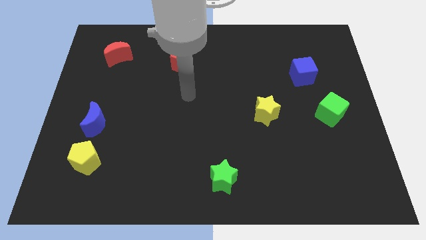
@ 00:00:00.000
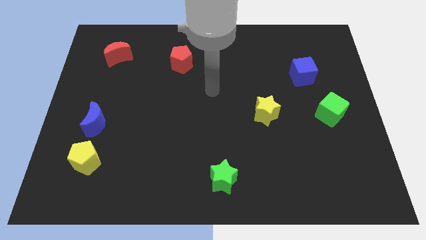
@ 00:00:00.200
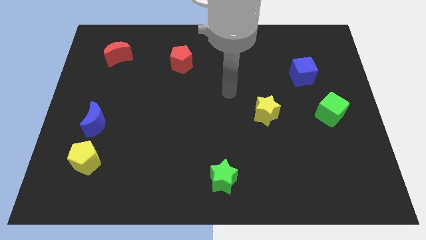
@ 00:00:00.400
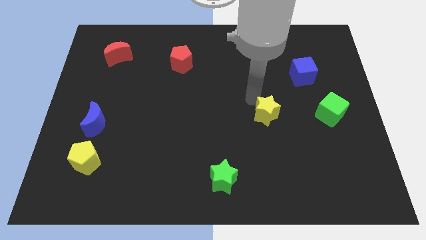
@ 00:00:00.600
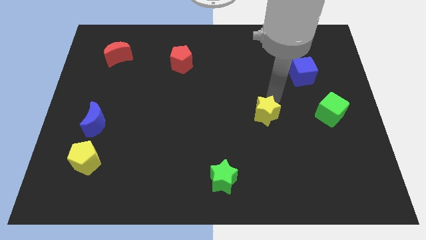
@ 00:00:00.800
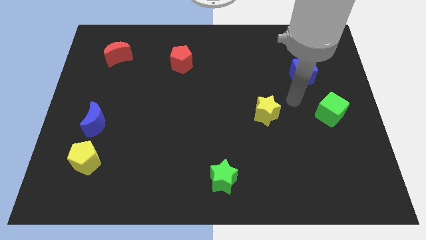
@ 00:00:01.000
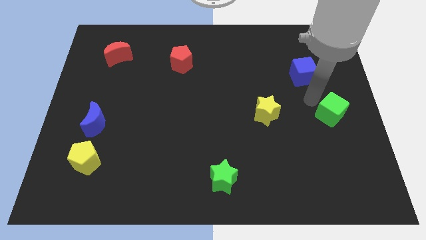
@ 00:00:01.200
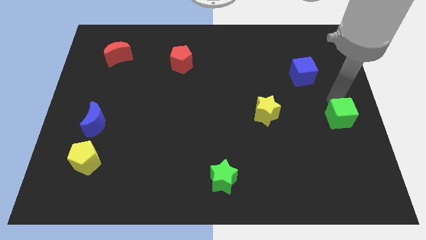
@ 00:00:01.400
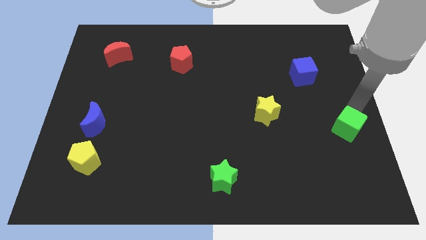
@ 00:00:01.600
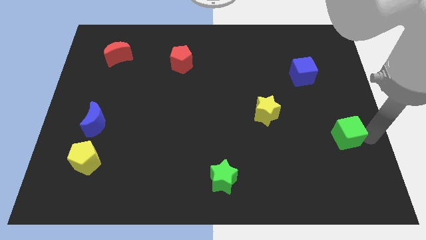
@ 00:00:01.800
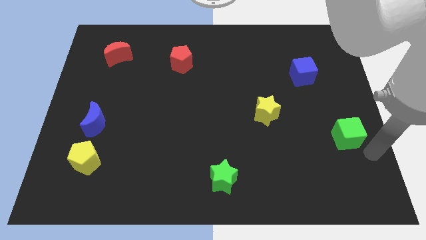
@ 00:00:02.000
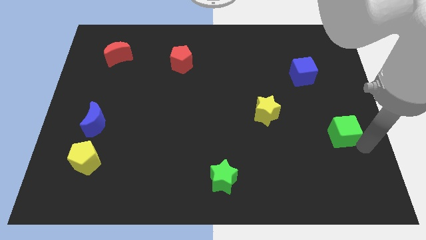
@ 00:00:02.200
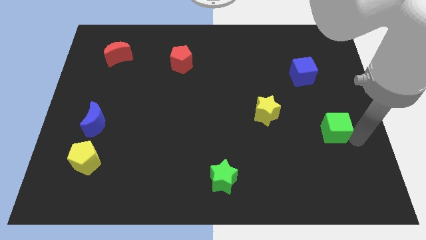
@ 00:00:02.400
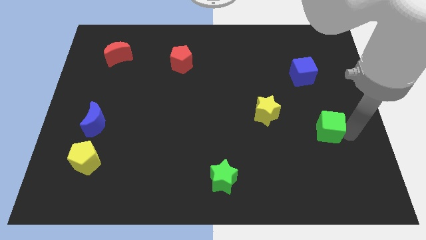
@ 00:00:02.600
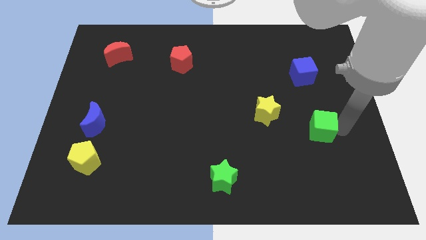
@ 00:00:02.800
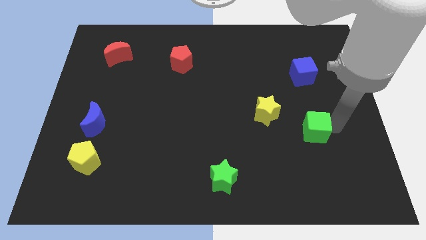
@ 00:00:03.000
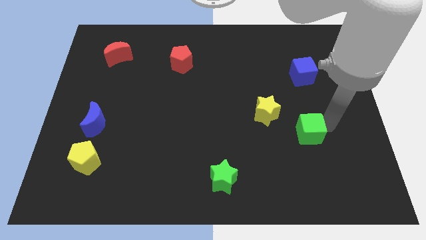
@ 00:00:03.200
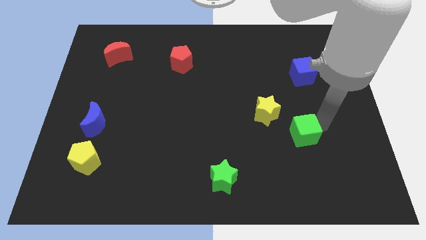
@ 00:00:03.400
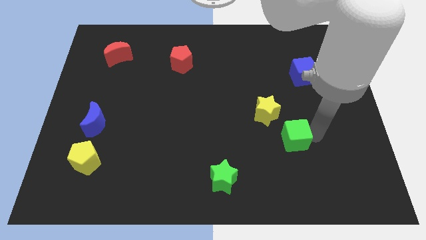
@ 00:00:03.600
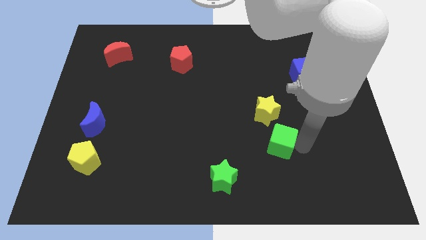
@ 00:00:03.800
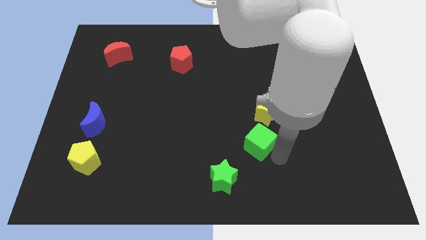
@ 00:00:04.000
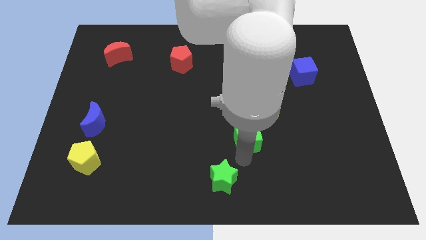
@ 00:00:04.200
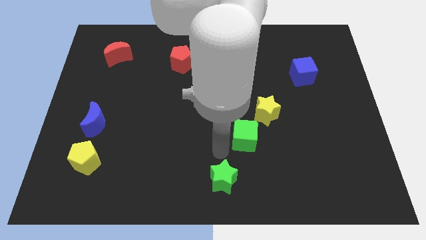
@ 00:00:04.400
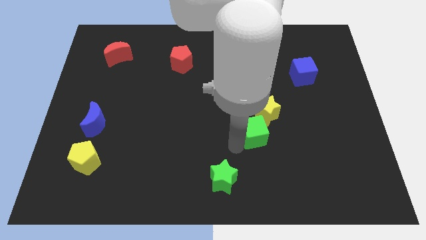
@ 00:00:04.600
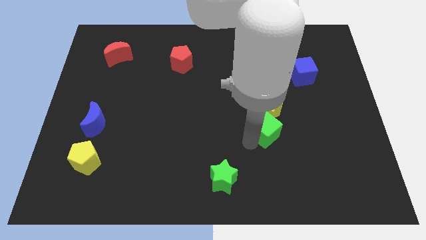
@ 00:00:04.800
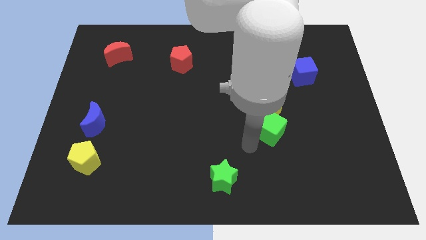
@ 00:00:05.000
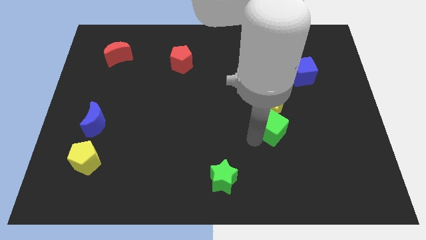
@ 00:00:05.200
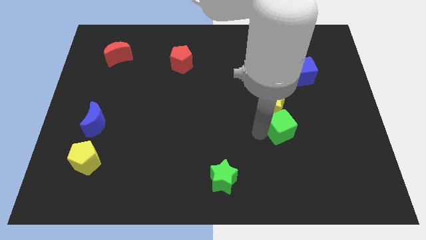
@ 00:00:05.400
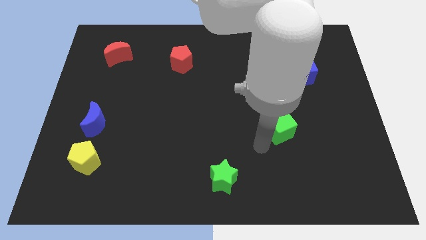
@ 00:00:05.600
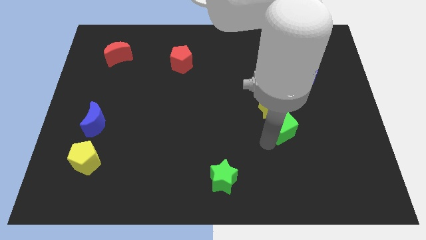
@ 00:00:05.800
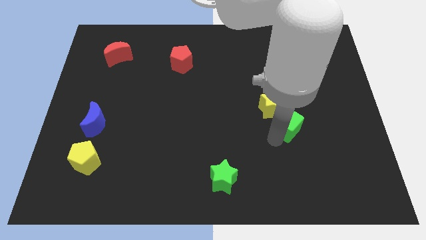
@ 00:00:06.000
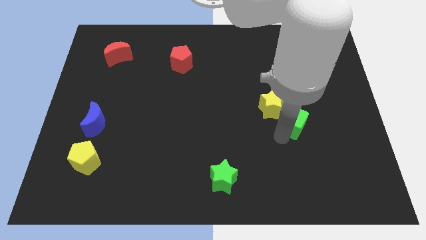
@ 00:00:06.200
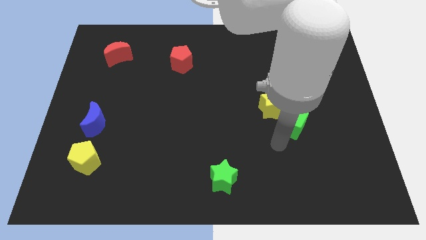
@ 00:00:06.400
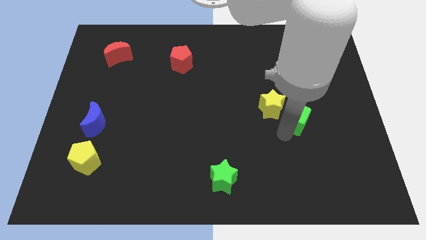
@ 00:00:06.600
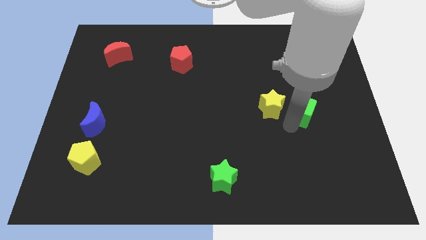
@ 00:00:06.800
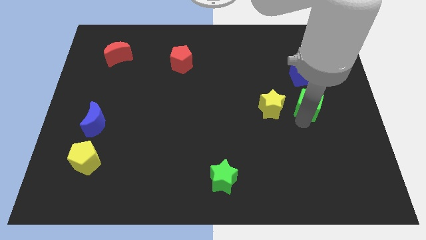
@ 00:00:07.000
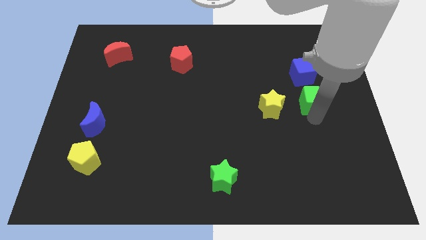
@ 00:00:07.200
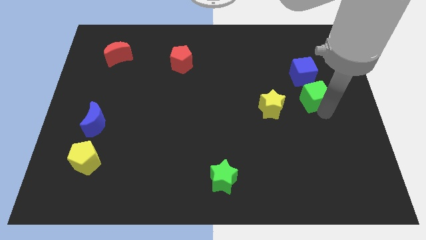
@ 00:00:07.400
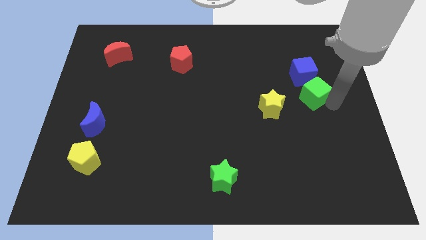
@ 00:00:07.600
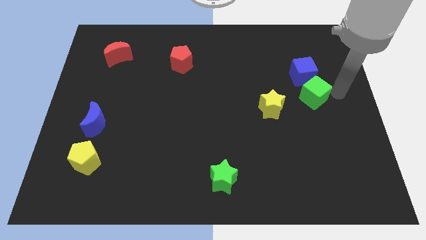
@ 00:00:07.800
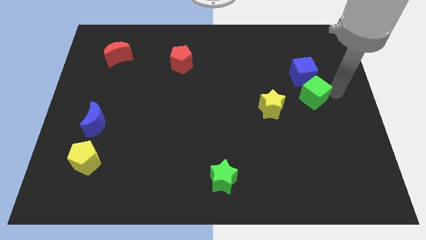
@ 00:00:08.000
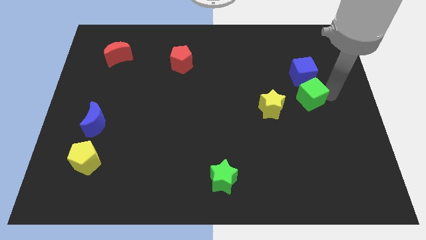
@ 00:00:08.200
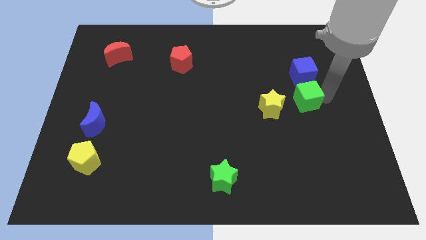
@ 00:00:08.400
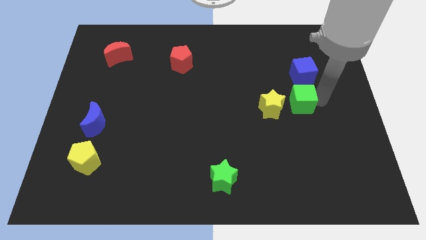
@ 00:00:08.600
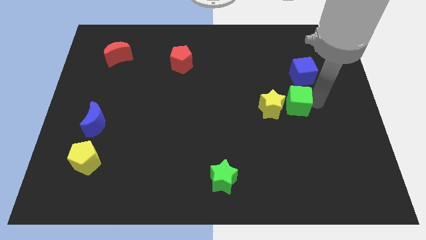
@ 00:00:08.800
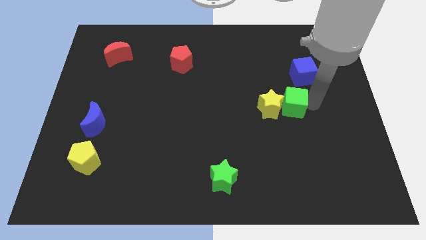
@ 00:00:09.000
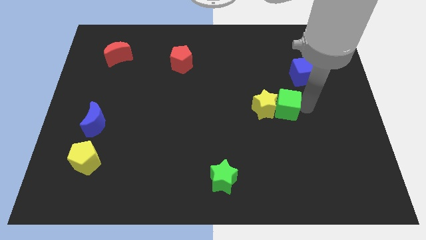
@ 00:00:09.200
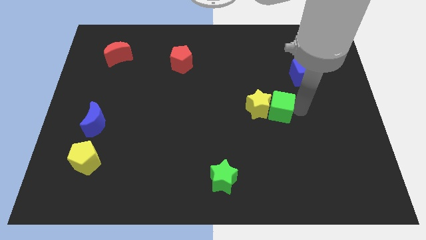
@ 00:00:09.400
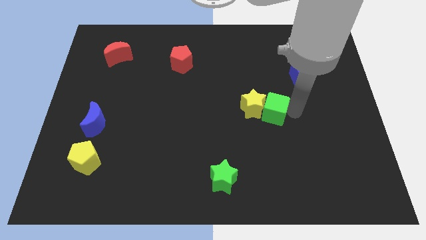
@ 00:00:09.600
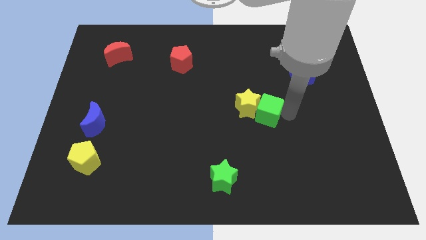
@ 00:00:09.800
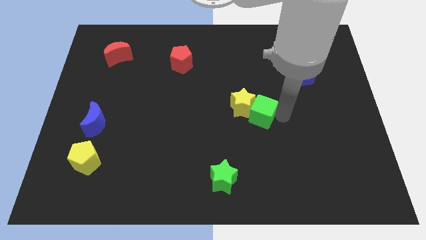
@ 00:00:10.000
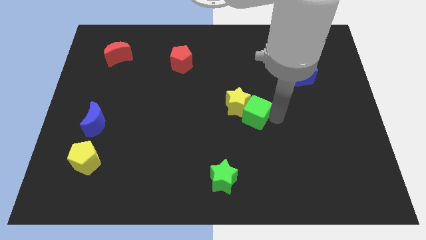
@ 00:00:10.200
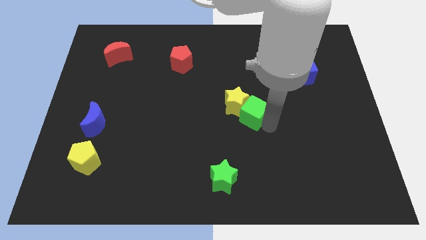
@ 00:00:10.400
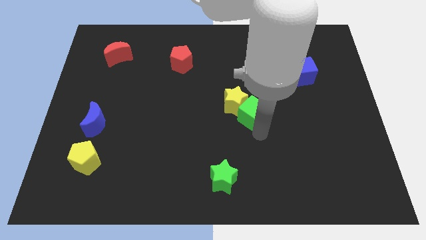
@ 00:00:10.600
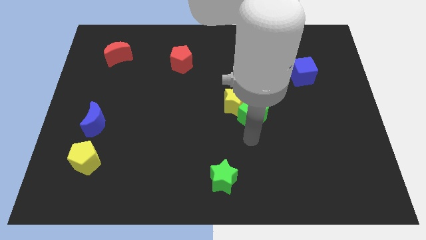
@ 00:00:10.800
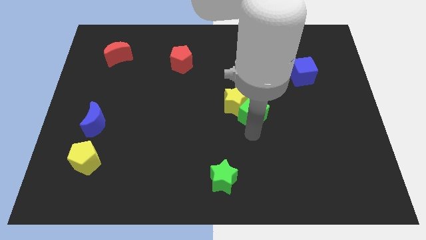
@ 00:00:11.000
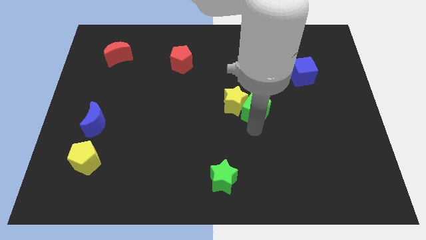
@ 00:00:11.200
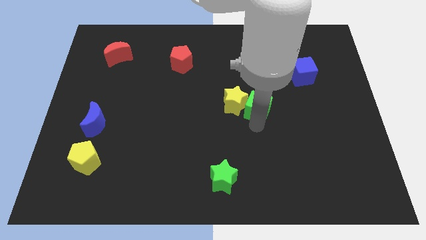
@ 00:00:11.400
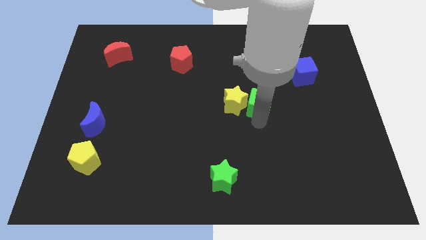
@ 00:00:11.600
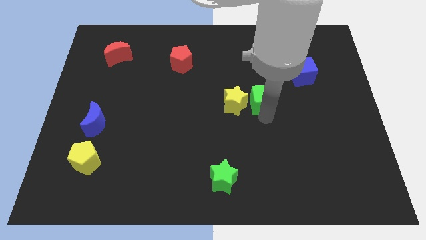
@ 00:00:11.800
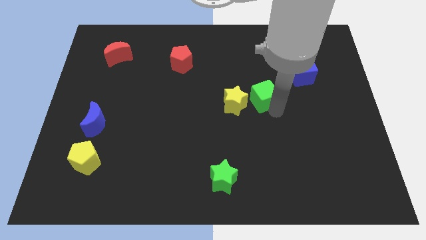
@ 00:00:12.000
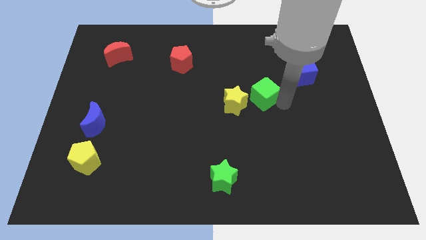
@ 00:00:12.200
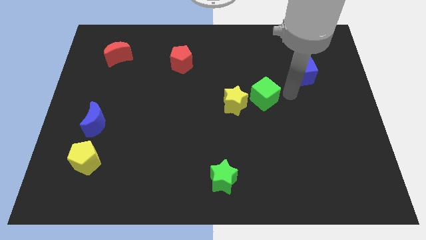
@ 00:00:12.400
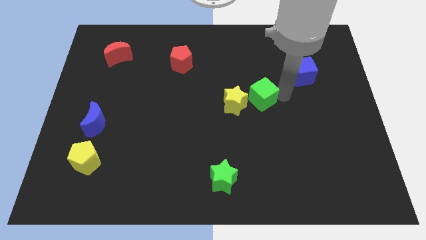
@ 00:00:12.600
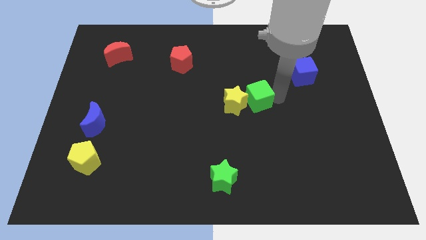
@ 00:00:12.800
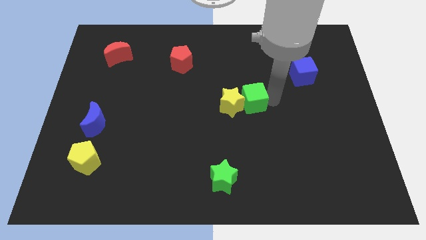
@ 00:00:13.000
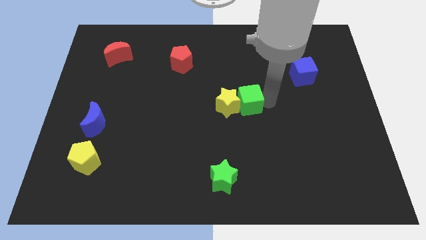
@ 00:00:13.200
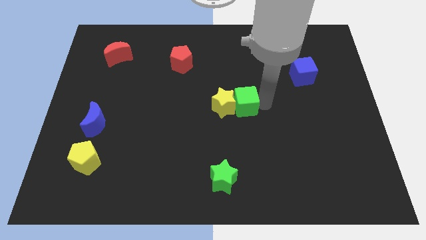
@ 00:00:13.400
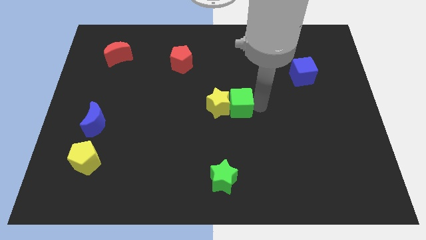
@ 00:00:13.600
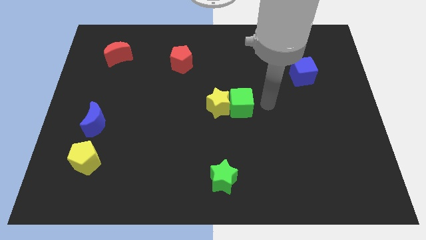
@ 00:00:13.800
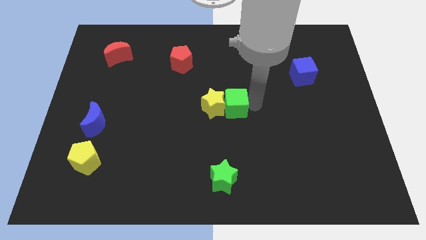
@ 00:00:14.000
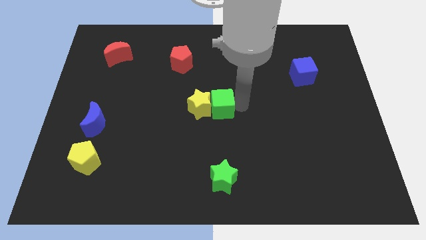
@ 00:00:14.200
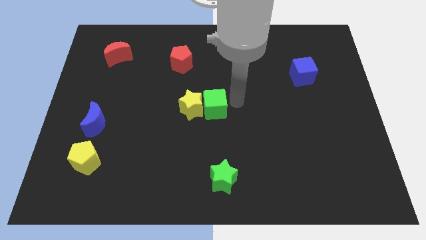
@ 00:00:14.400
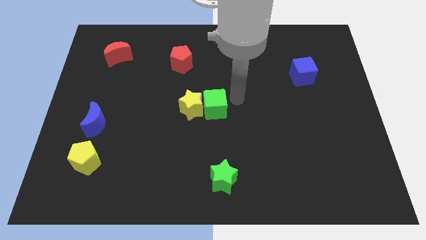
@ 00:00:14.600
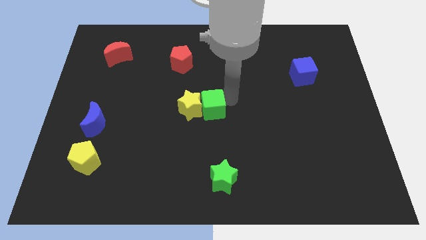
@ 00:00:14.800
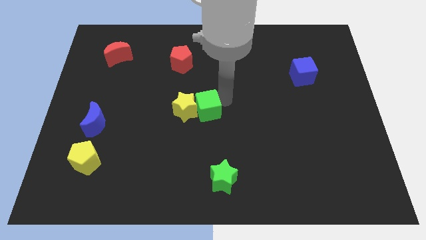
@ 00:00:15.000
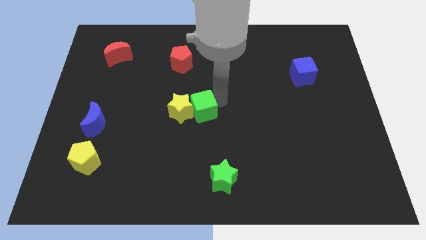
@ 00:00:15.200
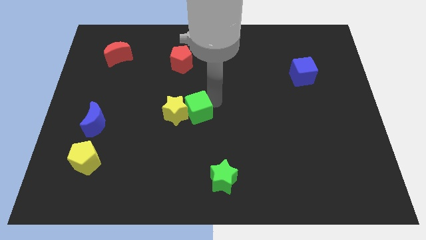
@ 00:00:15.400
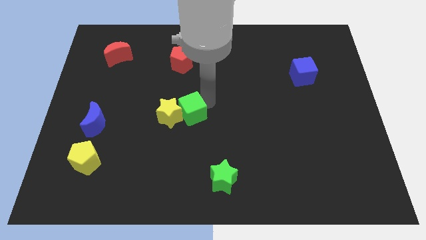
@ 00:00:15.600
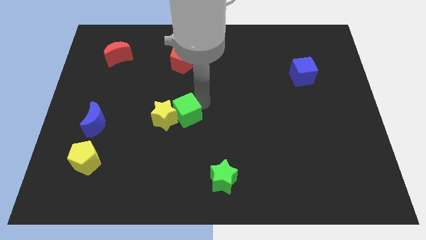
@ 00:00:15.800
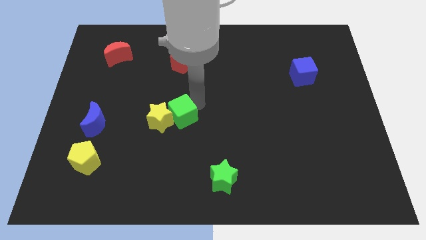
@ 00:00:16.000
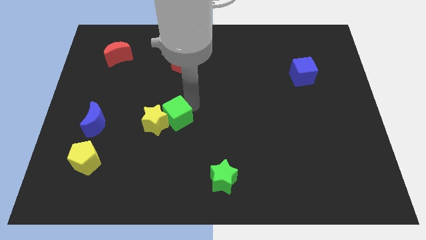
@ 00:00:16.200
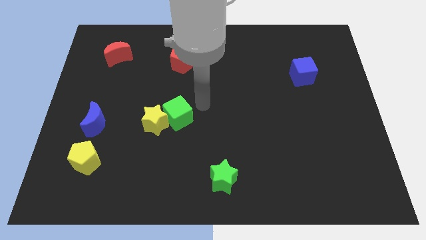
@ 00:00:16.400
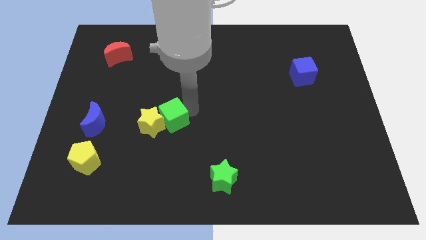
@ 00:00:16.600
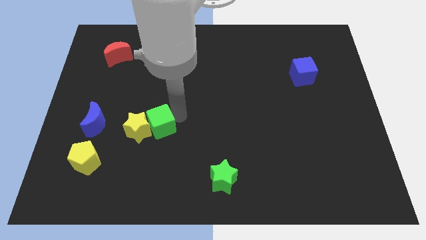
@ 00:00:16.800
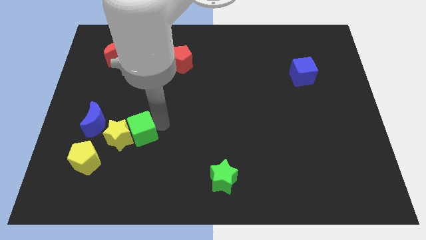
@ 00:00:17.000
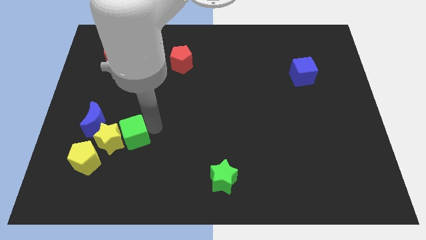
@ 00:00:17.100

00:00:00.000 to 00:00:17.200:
move the green cube to the bottom right of the blue moon
